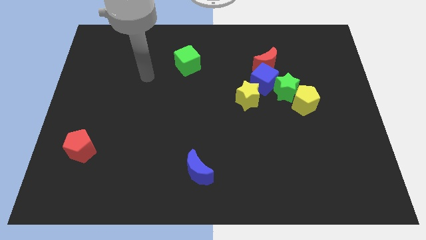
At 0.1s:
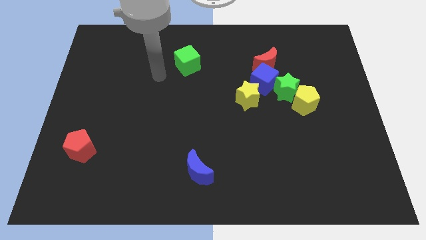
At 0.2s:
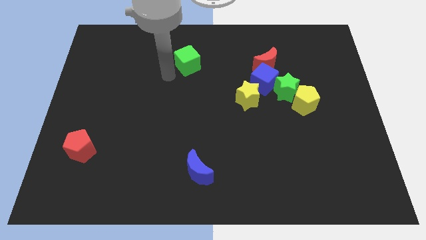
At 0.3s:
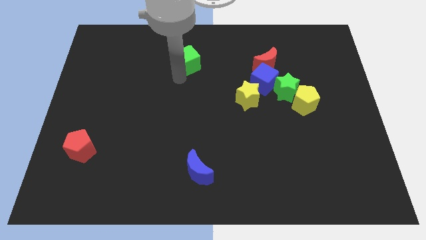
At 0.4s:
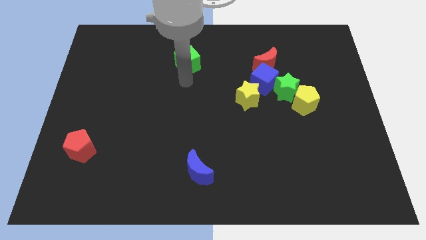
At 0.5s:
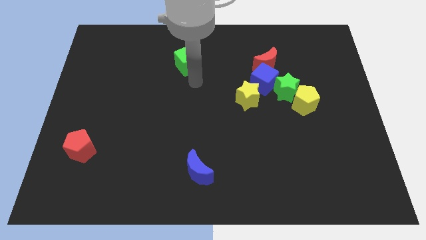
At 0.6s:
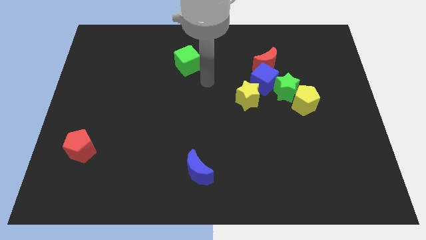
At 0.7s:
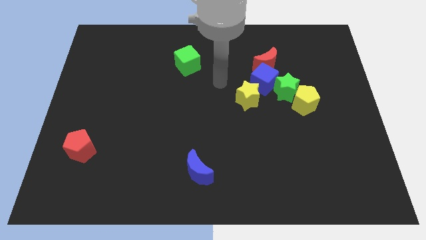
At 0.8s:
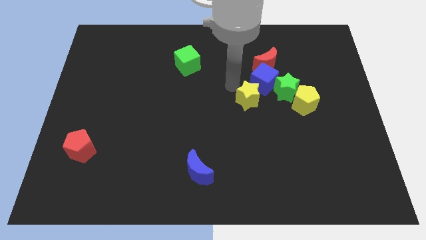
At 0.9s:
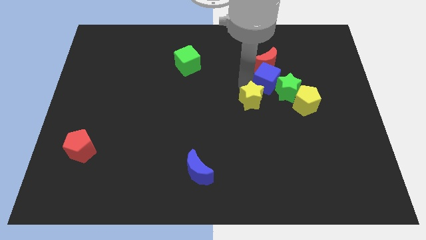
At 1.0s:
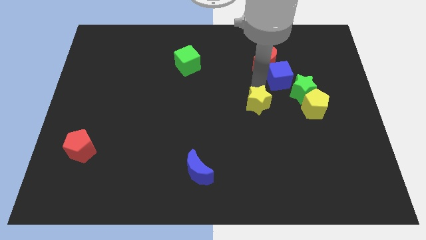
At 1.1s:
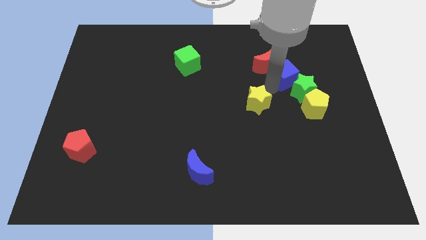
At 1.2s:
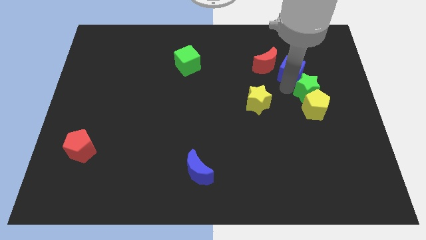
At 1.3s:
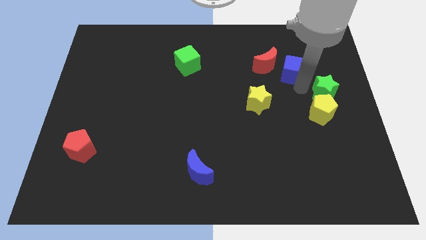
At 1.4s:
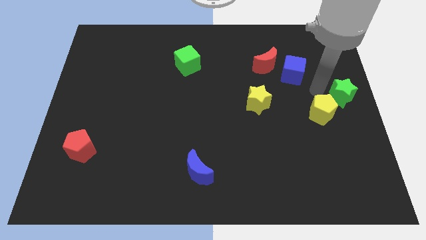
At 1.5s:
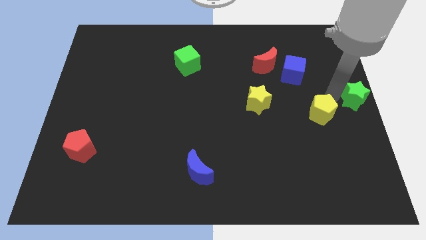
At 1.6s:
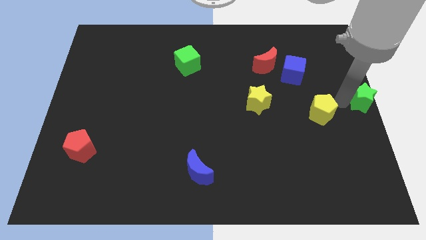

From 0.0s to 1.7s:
pull the yellow pentagon apart from the green star

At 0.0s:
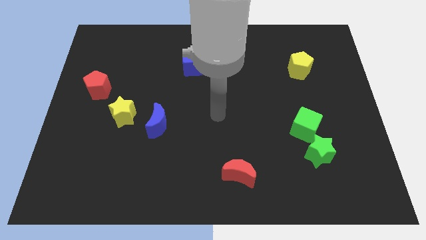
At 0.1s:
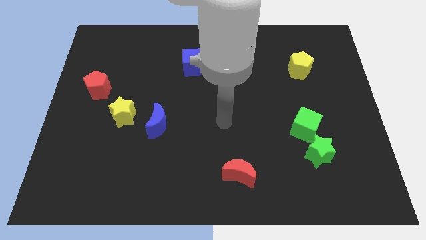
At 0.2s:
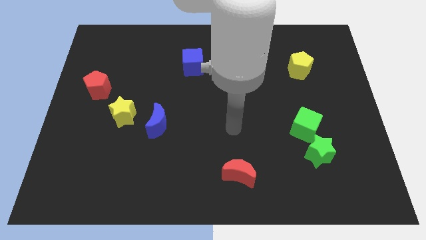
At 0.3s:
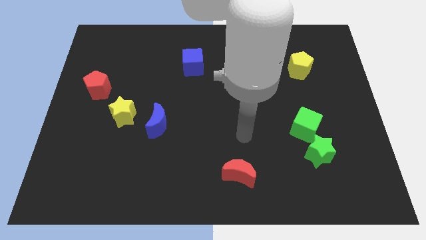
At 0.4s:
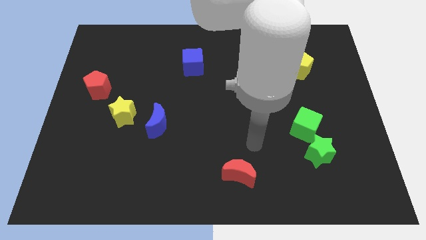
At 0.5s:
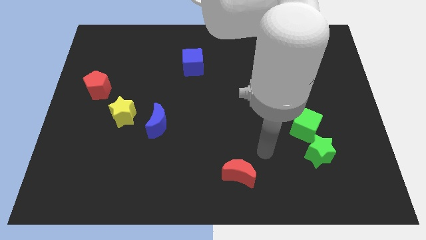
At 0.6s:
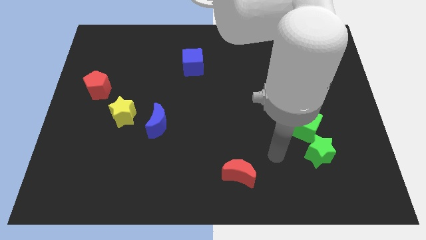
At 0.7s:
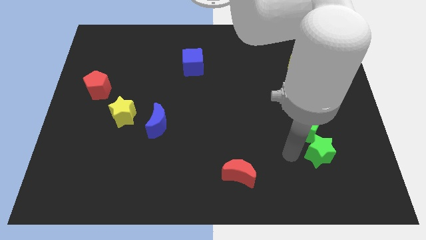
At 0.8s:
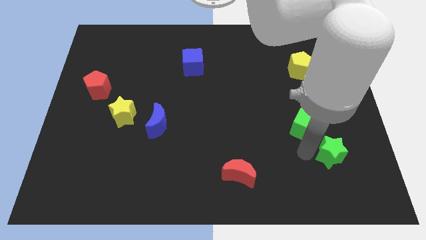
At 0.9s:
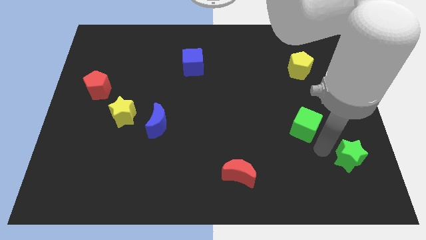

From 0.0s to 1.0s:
move the green cube away from the green star

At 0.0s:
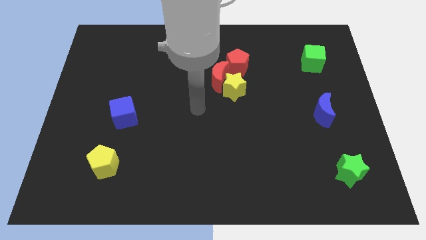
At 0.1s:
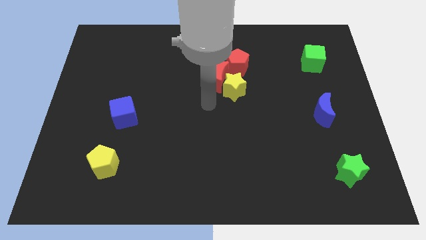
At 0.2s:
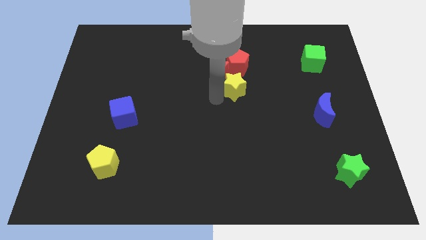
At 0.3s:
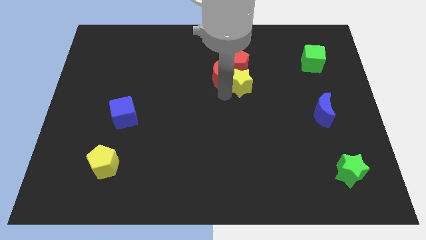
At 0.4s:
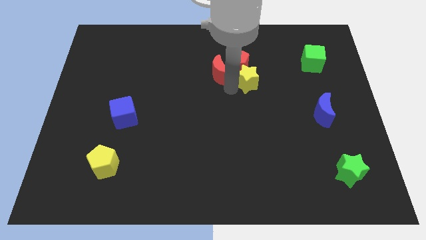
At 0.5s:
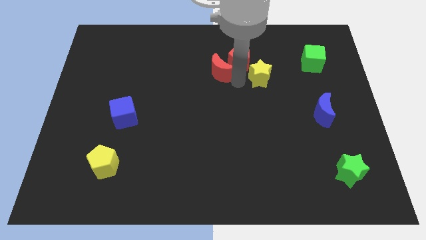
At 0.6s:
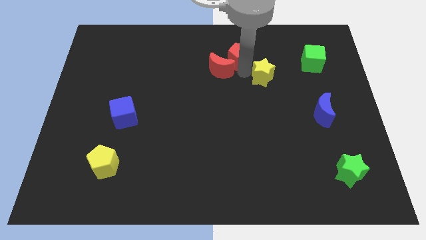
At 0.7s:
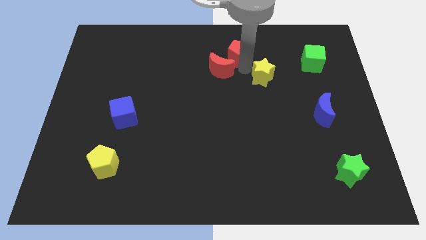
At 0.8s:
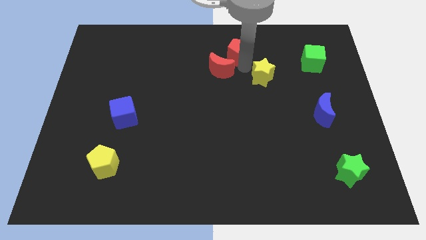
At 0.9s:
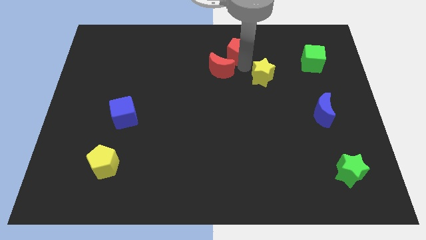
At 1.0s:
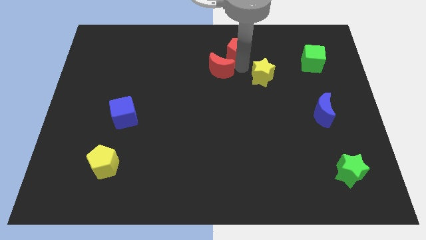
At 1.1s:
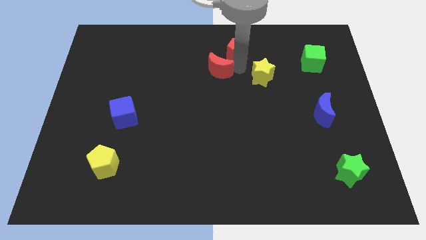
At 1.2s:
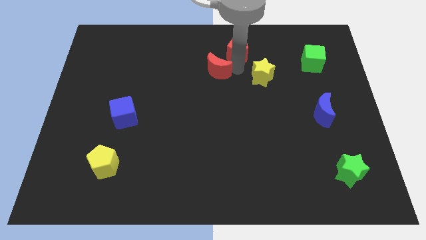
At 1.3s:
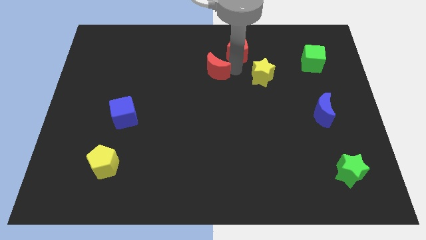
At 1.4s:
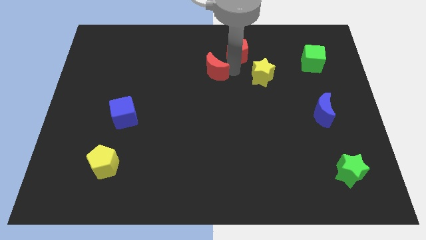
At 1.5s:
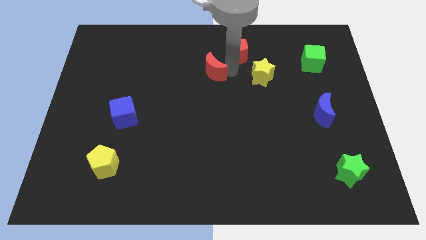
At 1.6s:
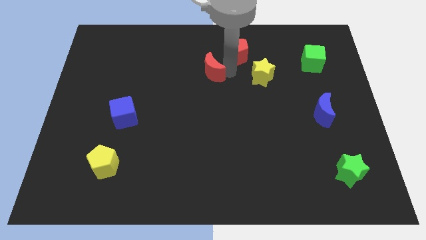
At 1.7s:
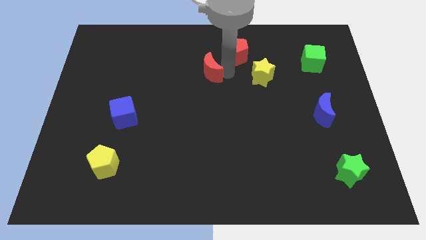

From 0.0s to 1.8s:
move the red moon away from the yellow star and red pentagon

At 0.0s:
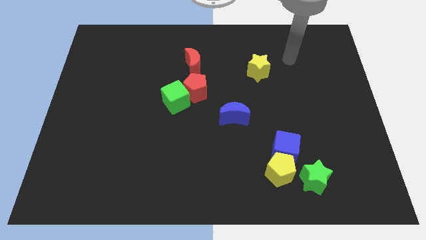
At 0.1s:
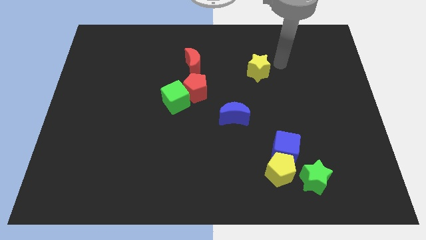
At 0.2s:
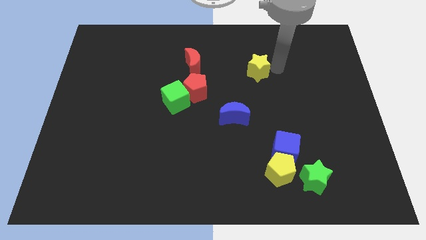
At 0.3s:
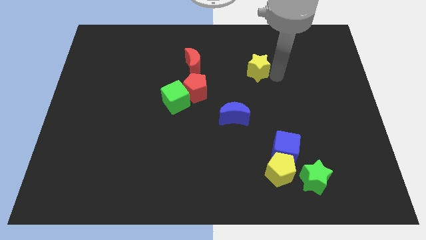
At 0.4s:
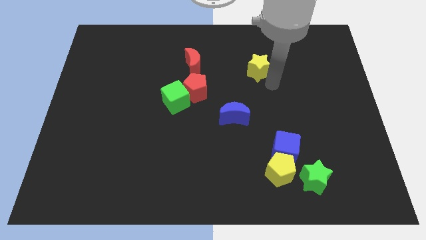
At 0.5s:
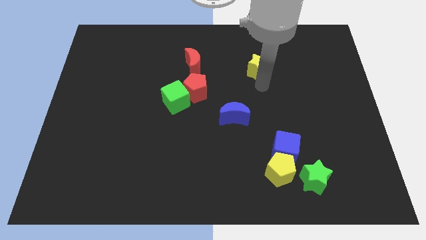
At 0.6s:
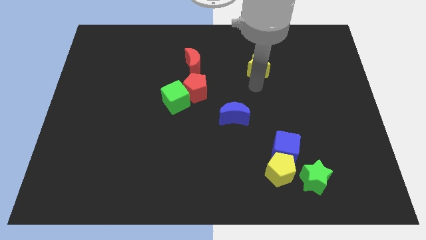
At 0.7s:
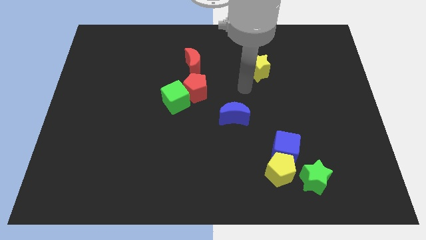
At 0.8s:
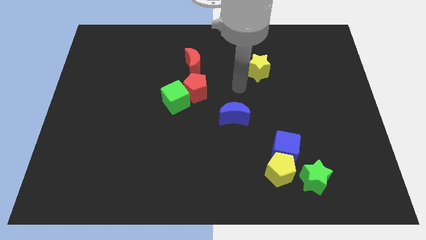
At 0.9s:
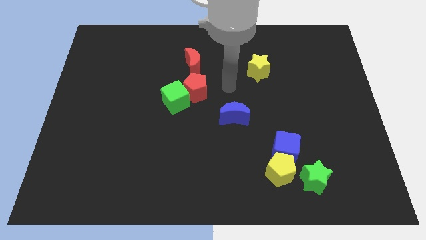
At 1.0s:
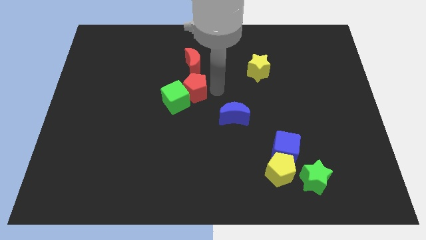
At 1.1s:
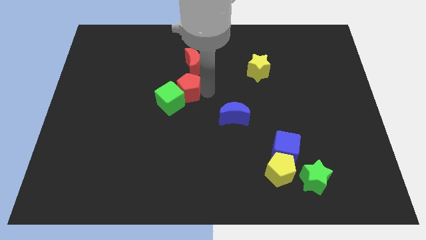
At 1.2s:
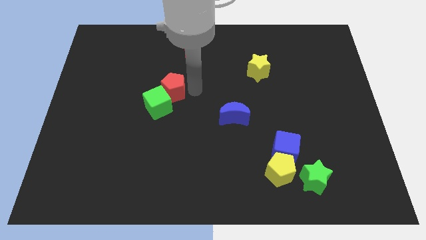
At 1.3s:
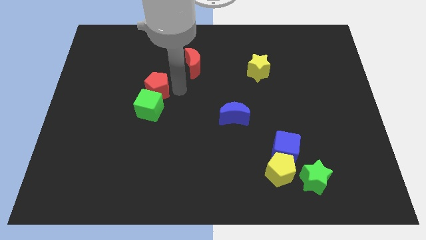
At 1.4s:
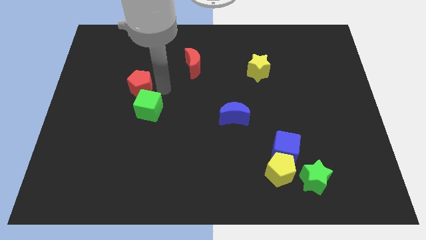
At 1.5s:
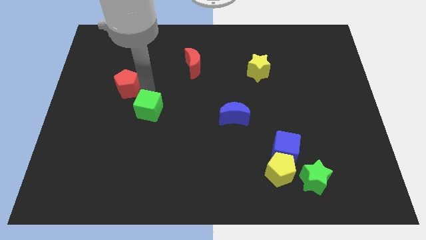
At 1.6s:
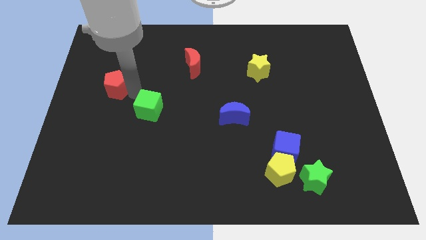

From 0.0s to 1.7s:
separate the green cube from the red pentagon

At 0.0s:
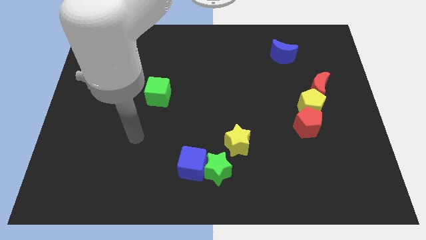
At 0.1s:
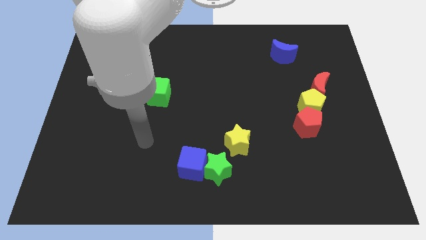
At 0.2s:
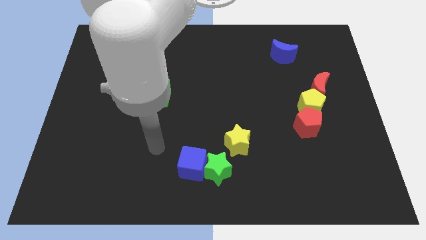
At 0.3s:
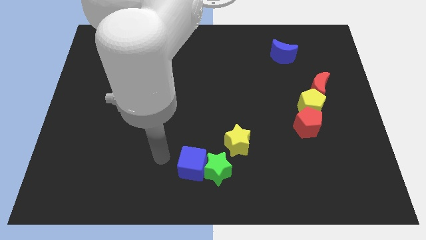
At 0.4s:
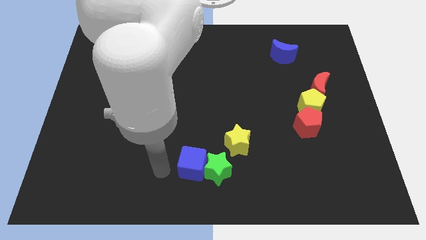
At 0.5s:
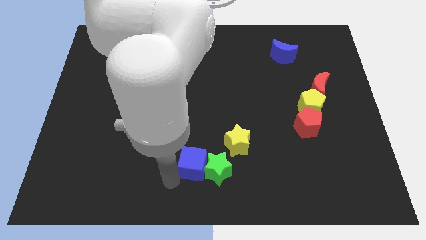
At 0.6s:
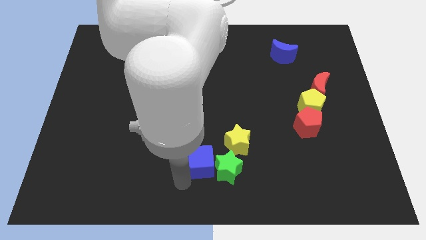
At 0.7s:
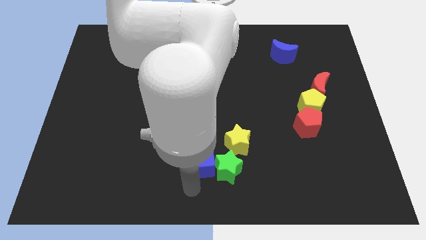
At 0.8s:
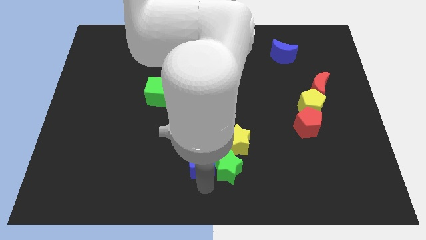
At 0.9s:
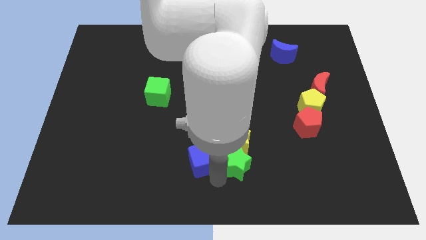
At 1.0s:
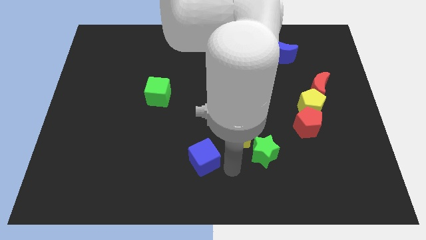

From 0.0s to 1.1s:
pull the blue cube apart from the green star

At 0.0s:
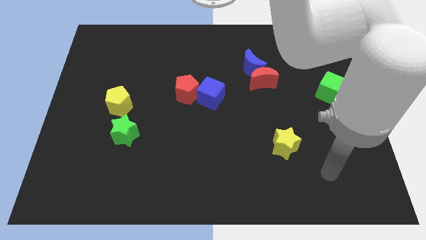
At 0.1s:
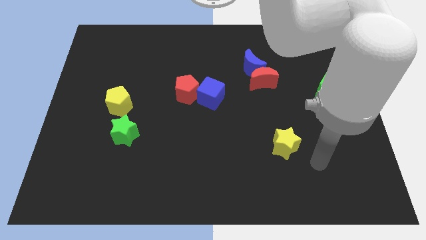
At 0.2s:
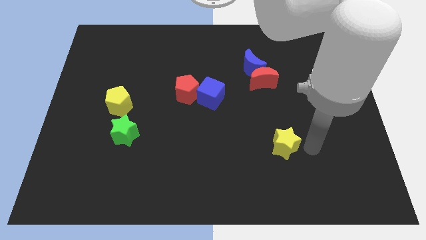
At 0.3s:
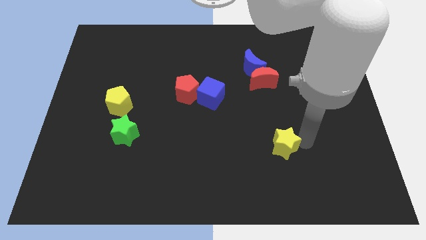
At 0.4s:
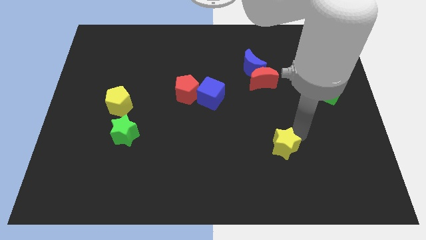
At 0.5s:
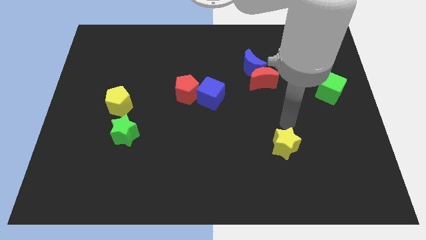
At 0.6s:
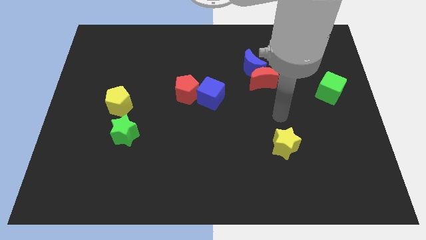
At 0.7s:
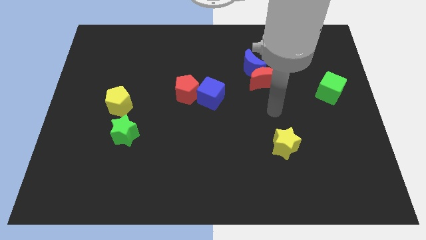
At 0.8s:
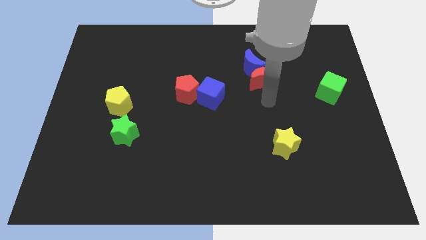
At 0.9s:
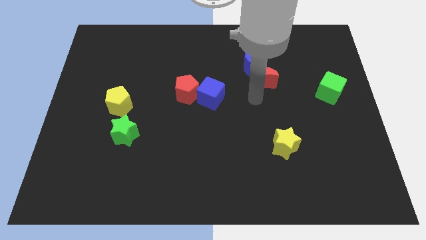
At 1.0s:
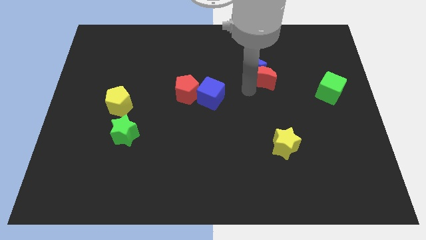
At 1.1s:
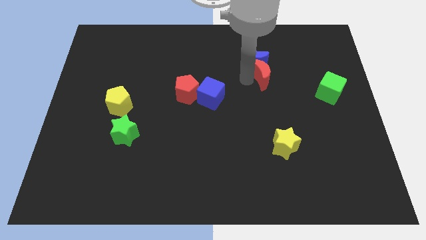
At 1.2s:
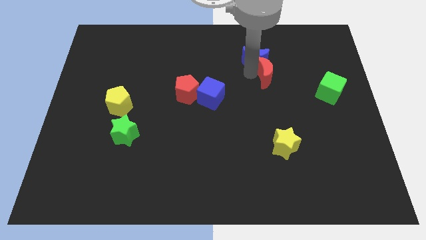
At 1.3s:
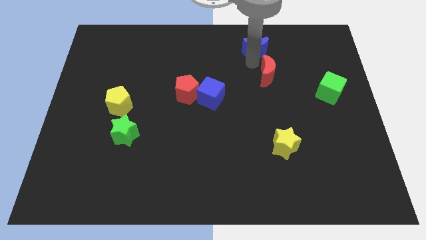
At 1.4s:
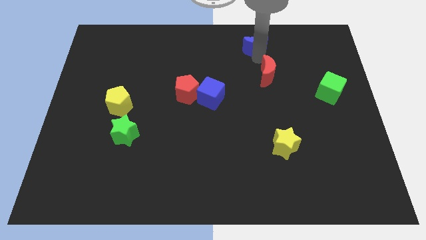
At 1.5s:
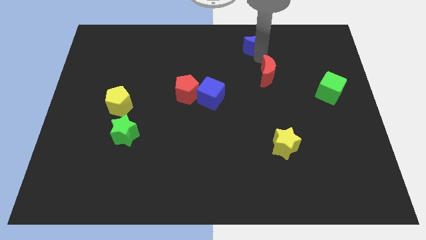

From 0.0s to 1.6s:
pull the red moon apart from the blue moon

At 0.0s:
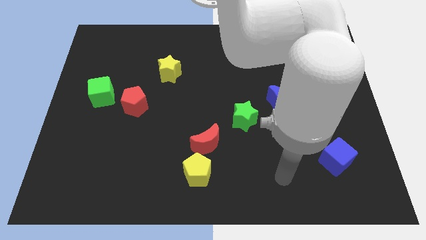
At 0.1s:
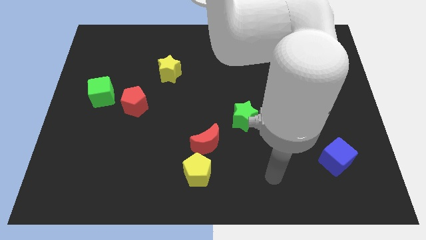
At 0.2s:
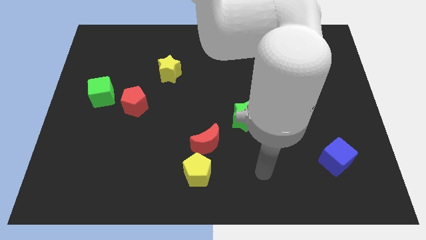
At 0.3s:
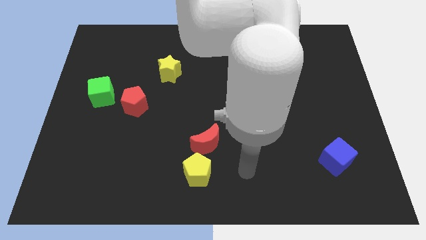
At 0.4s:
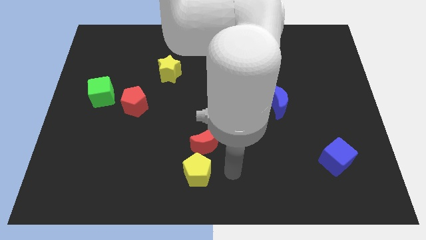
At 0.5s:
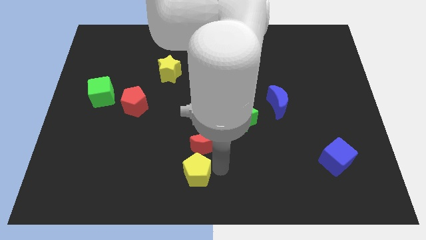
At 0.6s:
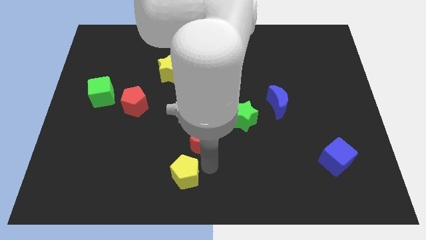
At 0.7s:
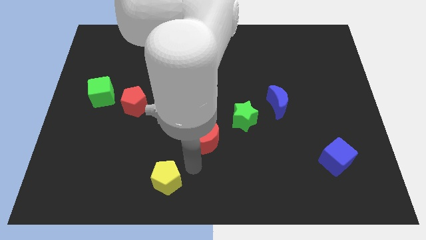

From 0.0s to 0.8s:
move the red moon away from the yellow pentagon
